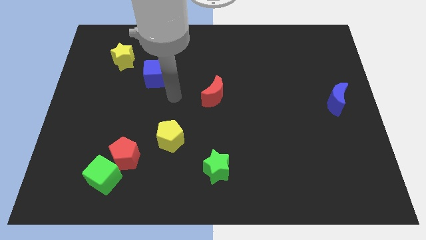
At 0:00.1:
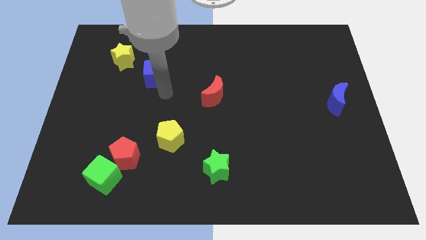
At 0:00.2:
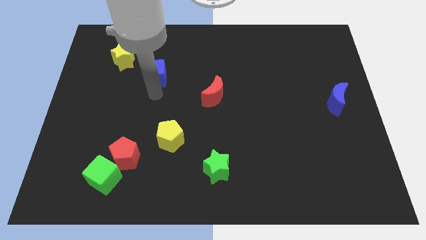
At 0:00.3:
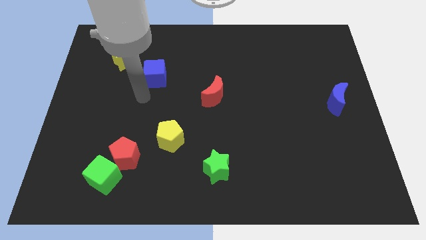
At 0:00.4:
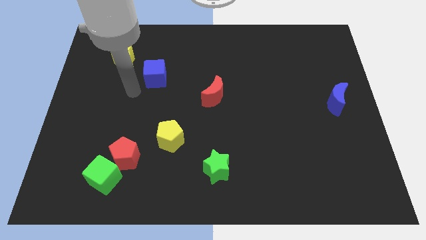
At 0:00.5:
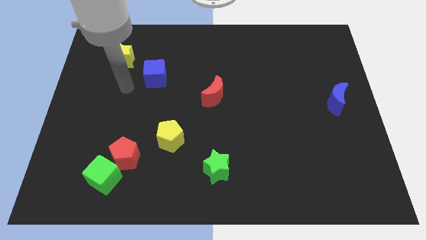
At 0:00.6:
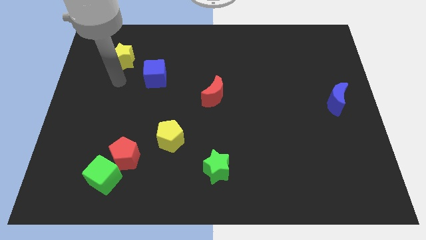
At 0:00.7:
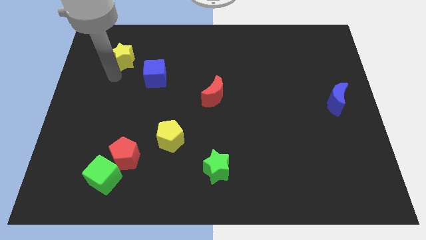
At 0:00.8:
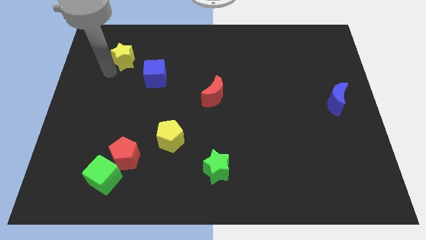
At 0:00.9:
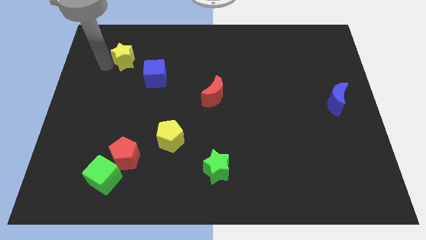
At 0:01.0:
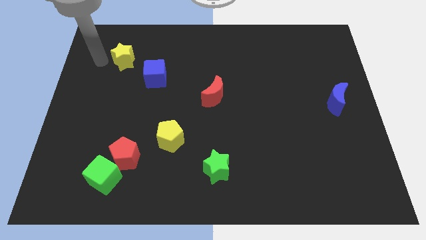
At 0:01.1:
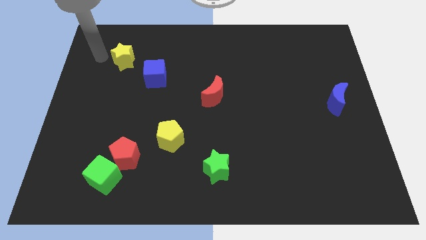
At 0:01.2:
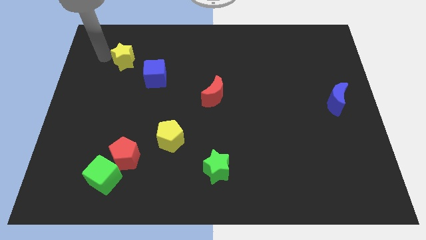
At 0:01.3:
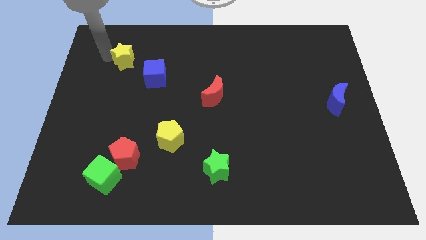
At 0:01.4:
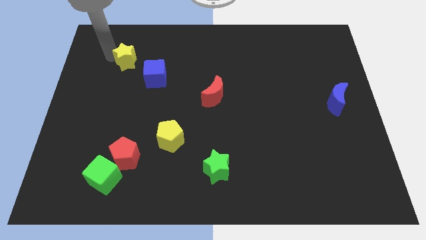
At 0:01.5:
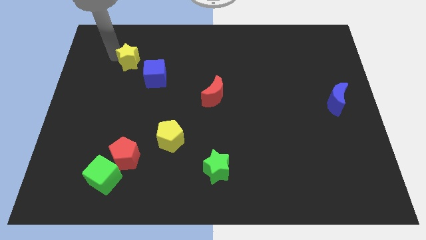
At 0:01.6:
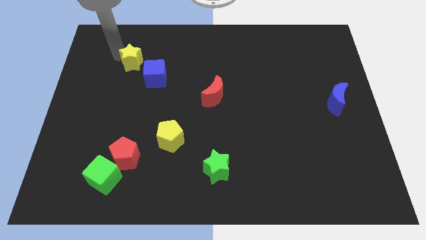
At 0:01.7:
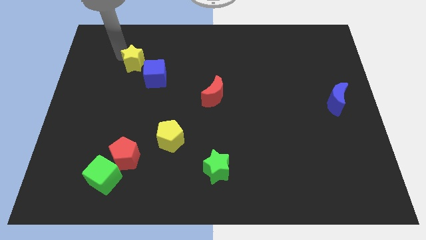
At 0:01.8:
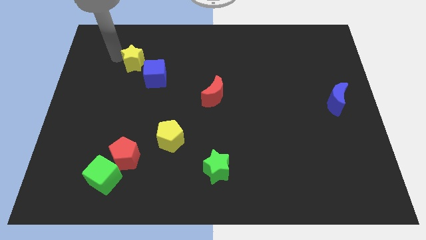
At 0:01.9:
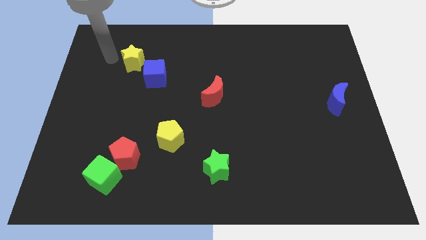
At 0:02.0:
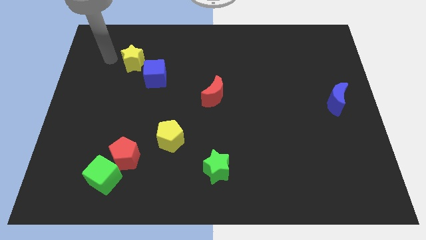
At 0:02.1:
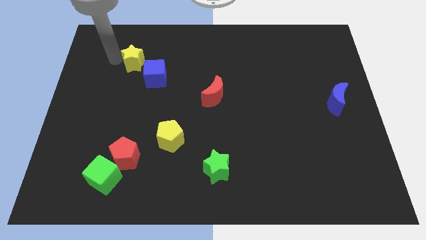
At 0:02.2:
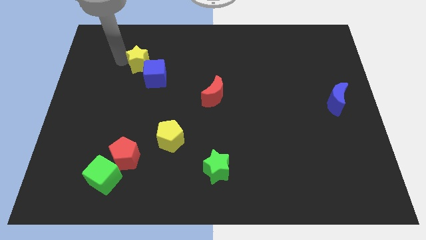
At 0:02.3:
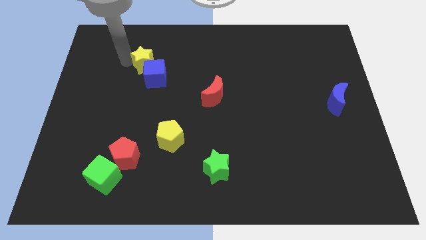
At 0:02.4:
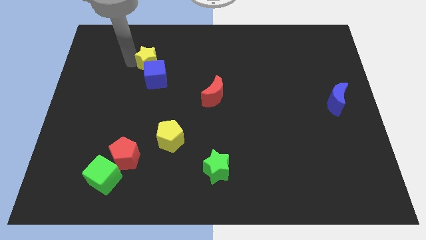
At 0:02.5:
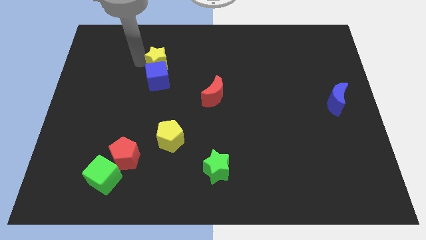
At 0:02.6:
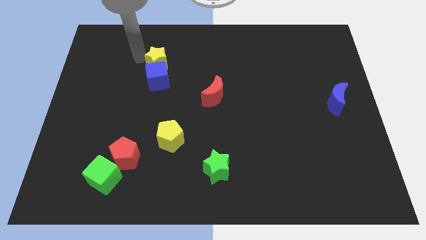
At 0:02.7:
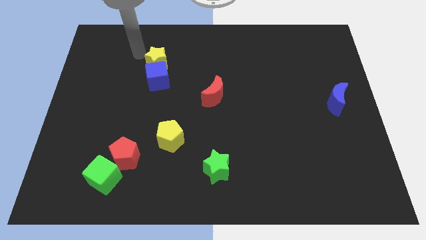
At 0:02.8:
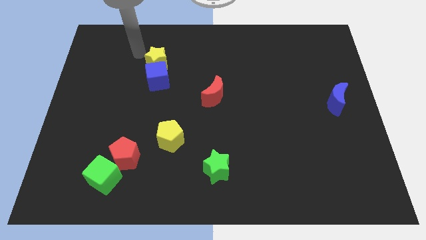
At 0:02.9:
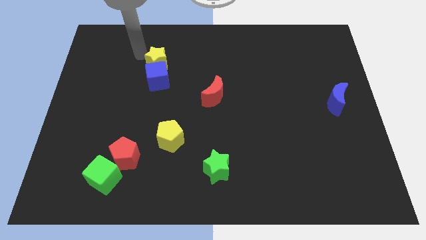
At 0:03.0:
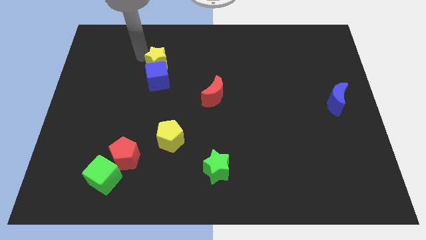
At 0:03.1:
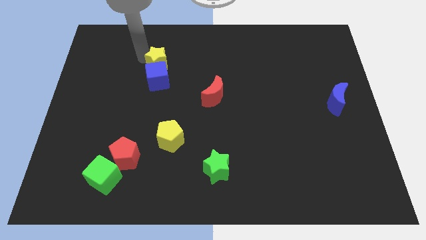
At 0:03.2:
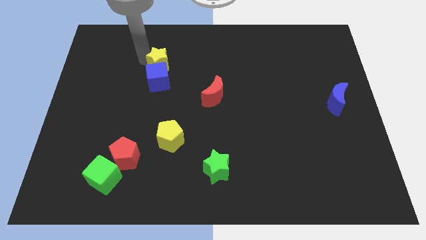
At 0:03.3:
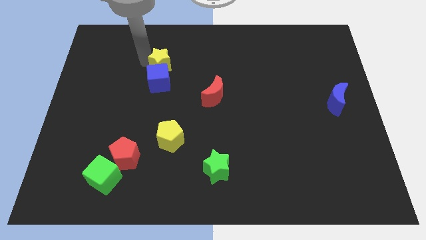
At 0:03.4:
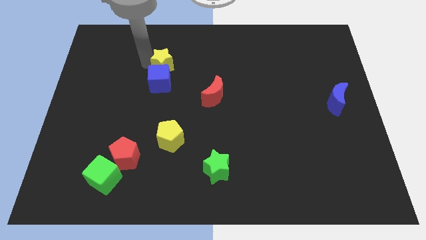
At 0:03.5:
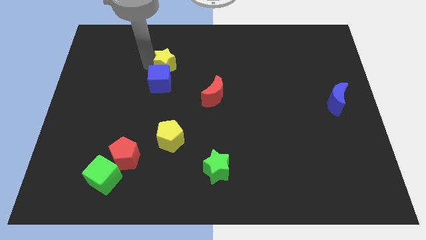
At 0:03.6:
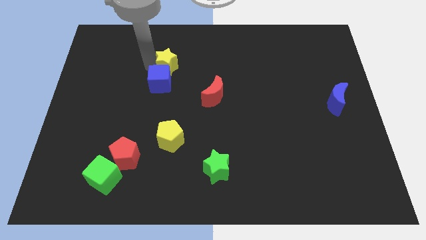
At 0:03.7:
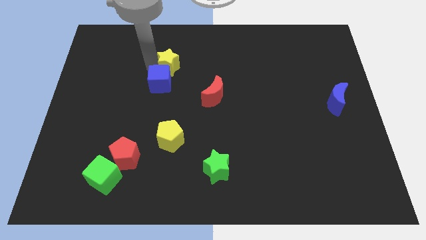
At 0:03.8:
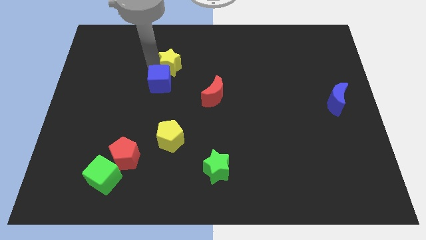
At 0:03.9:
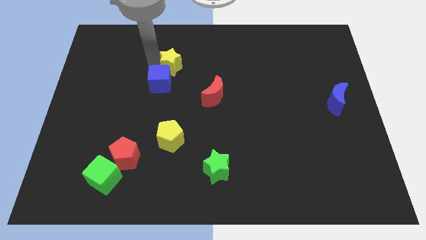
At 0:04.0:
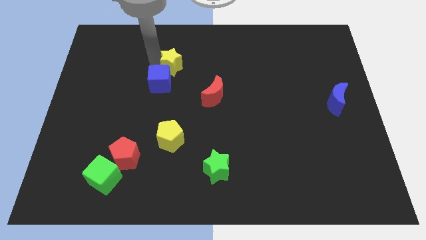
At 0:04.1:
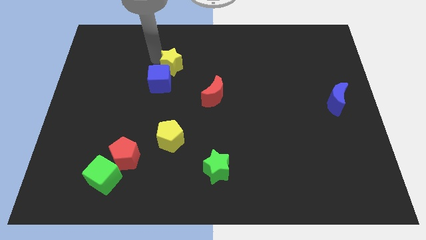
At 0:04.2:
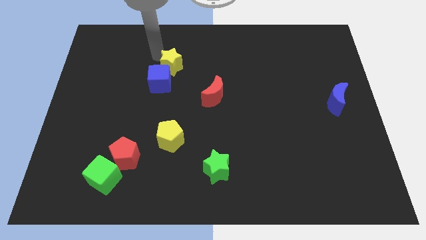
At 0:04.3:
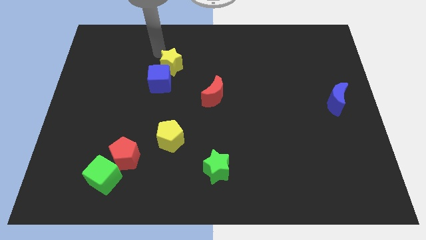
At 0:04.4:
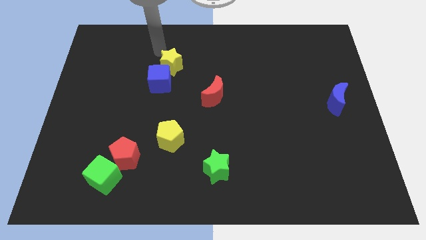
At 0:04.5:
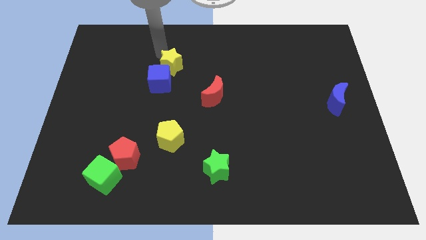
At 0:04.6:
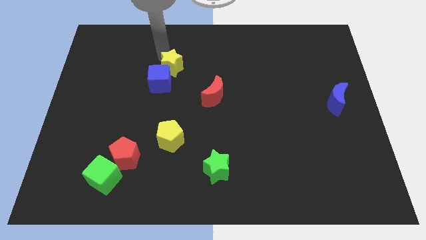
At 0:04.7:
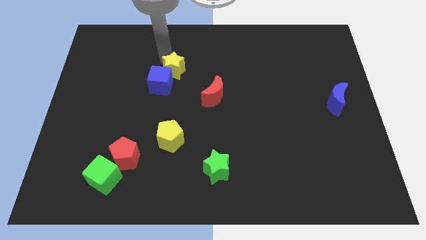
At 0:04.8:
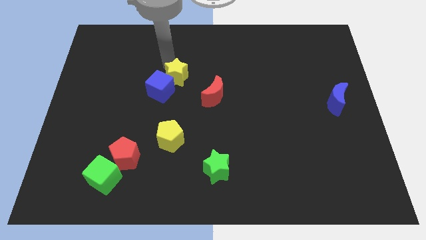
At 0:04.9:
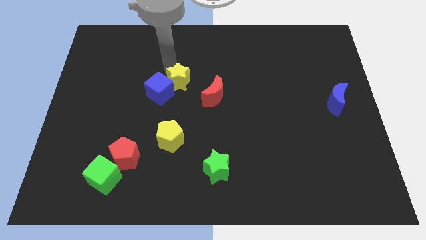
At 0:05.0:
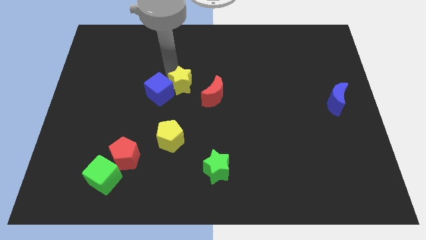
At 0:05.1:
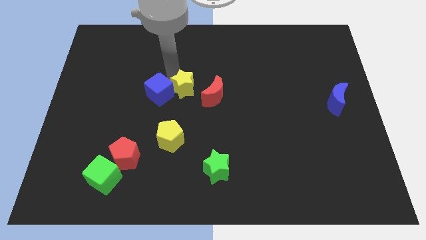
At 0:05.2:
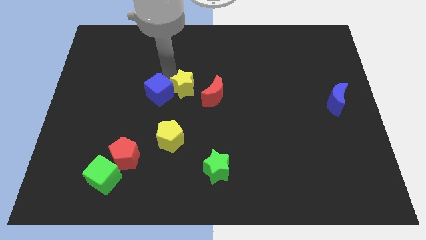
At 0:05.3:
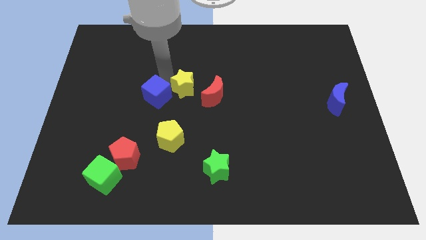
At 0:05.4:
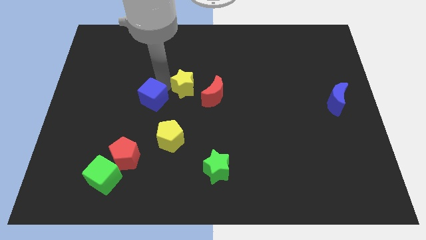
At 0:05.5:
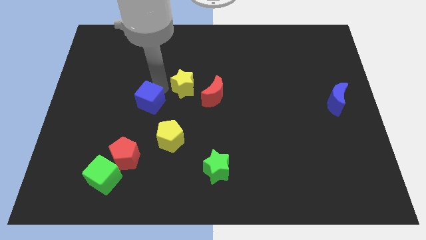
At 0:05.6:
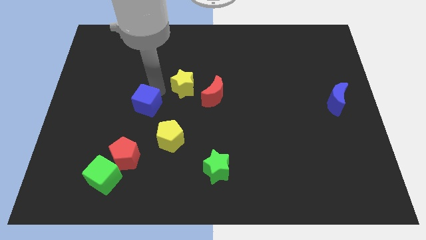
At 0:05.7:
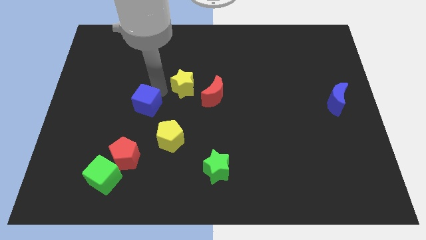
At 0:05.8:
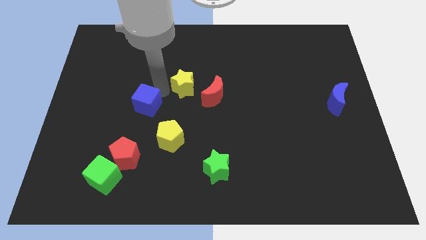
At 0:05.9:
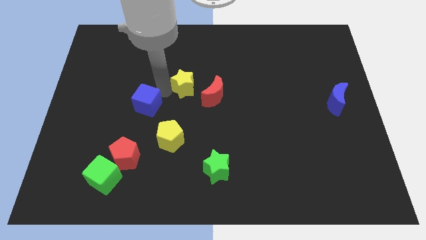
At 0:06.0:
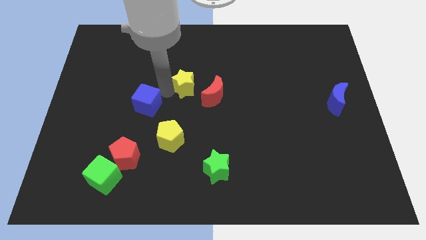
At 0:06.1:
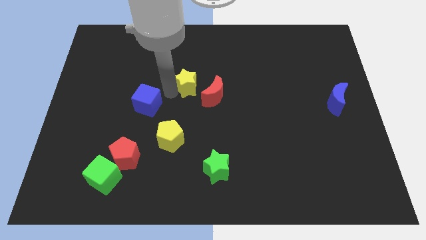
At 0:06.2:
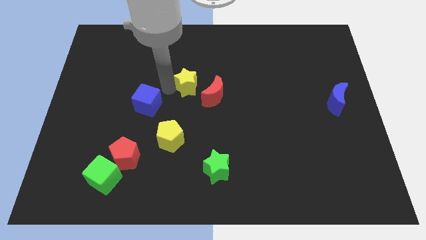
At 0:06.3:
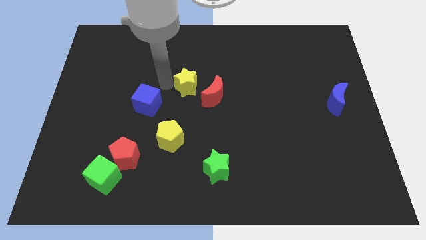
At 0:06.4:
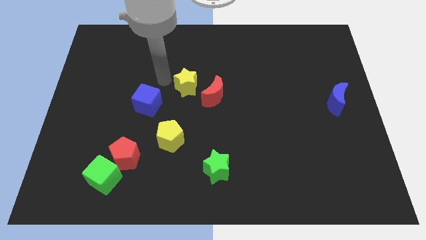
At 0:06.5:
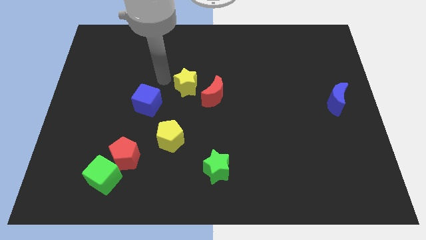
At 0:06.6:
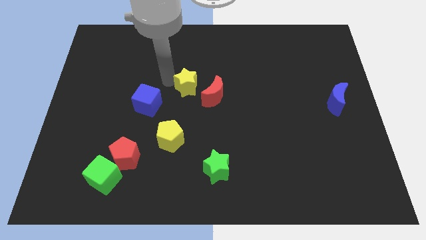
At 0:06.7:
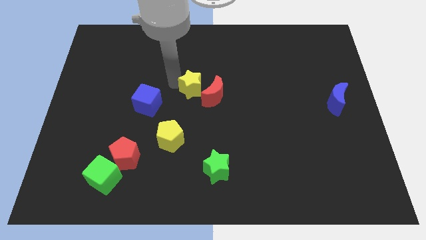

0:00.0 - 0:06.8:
put the yellow star next to the red moon
